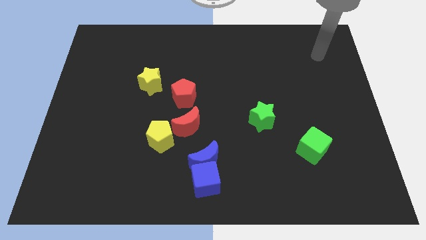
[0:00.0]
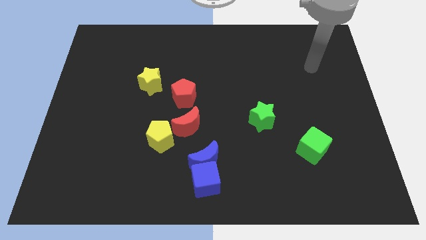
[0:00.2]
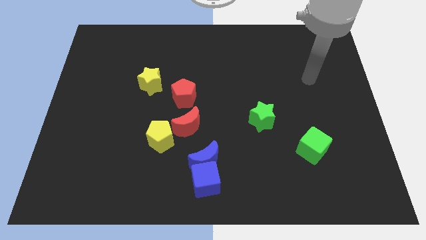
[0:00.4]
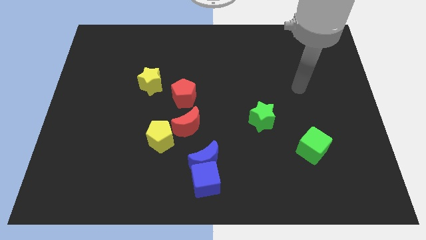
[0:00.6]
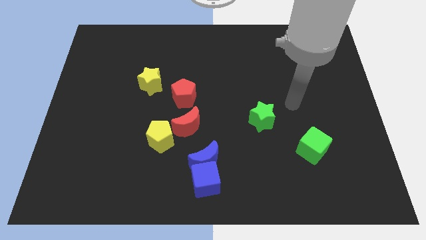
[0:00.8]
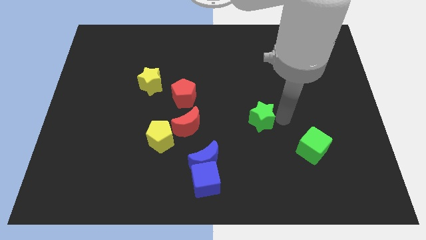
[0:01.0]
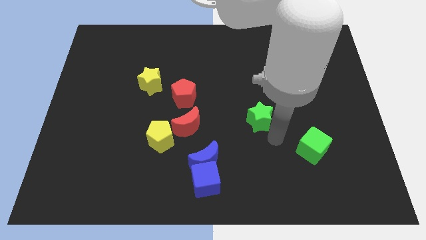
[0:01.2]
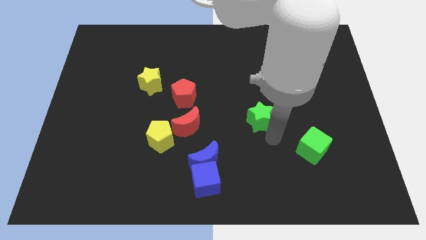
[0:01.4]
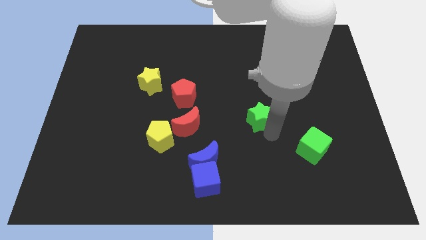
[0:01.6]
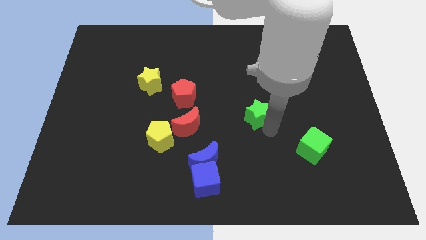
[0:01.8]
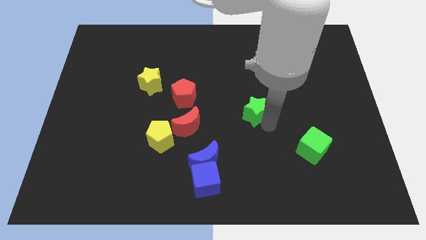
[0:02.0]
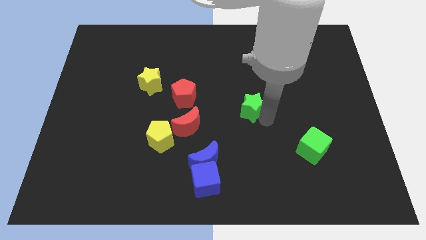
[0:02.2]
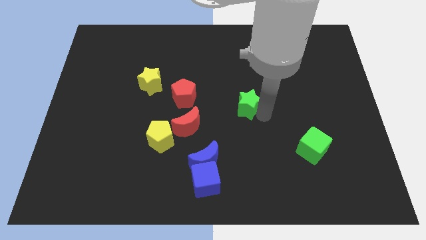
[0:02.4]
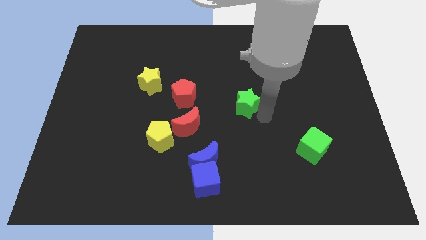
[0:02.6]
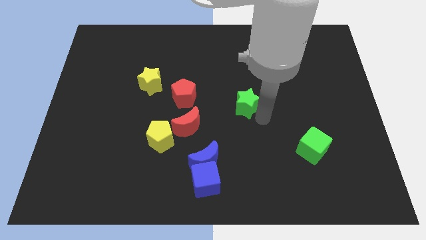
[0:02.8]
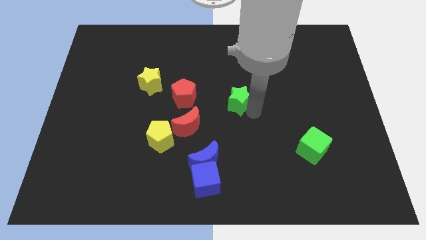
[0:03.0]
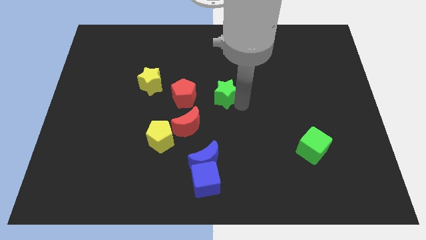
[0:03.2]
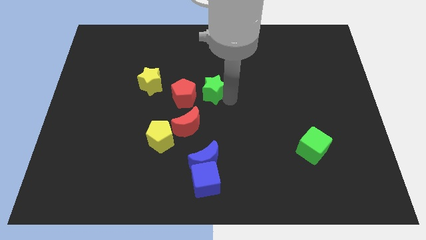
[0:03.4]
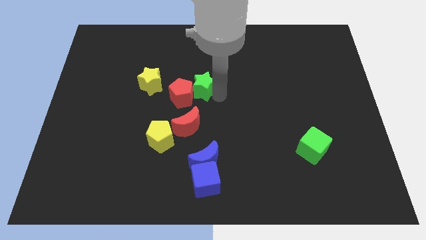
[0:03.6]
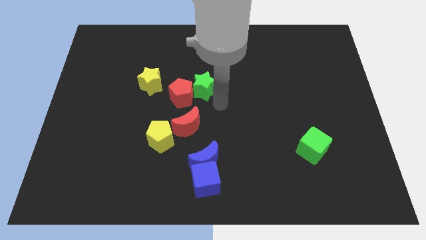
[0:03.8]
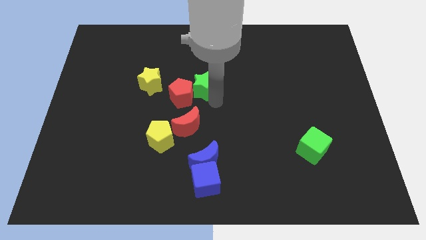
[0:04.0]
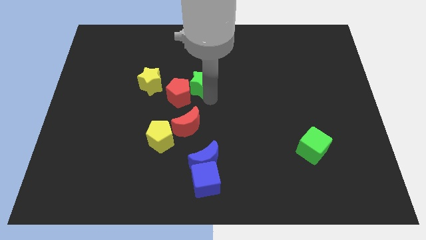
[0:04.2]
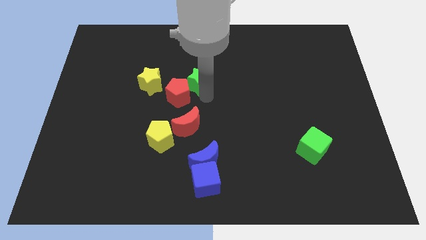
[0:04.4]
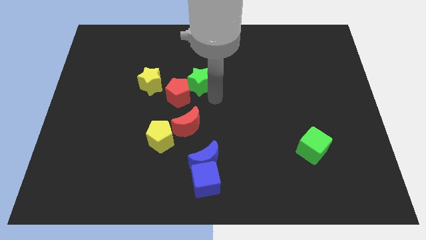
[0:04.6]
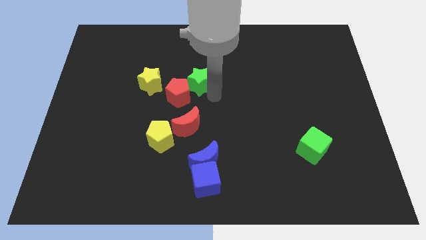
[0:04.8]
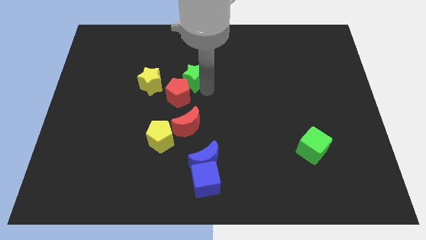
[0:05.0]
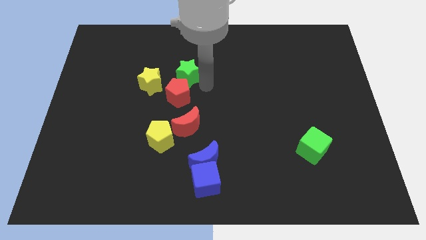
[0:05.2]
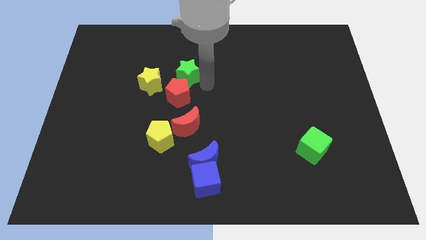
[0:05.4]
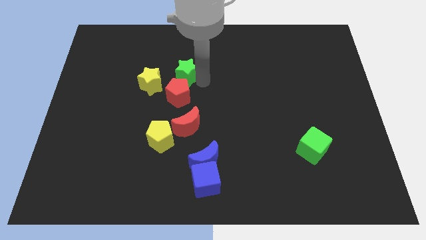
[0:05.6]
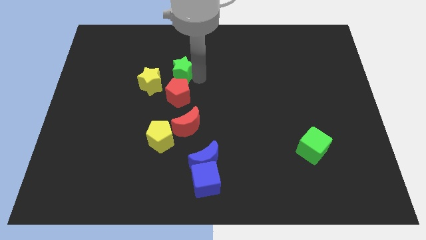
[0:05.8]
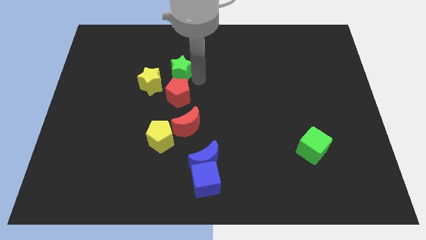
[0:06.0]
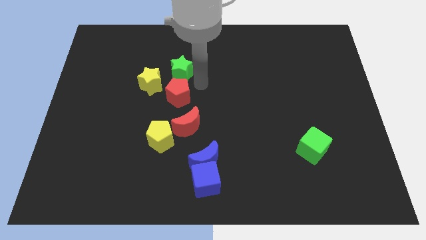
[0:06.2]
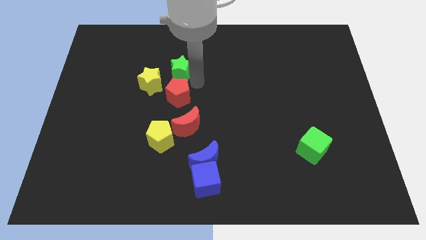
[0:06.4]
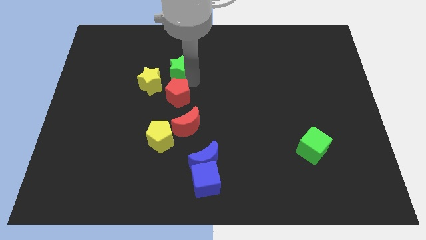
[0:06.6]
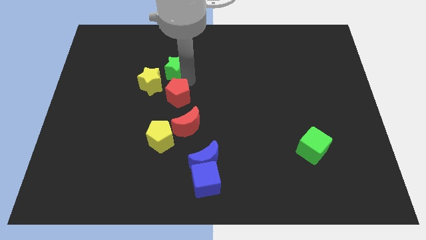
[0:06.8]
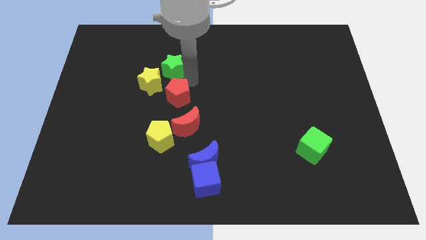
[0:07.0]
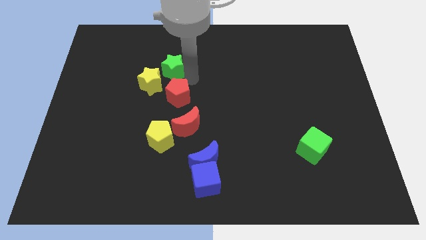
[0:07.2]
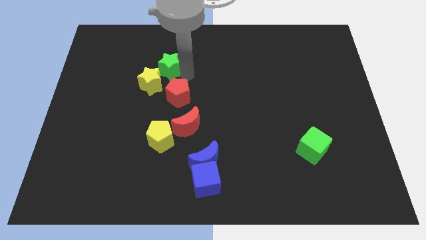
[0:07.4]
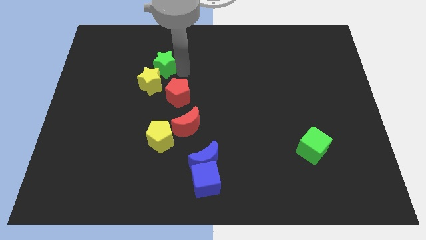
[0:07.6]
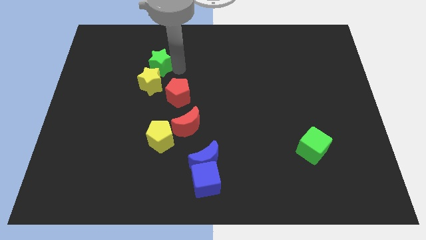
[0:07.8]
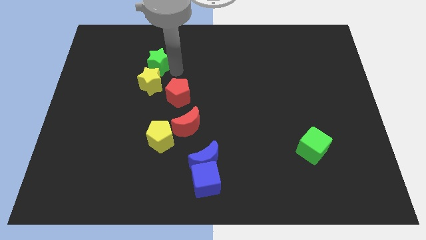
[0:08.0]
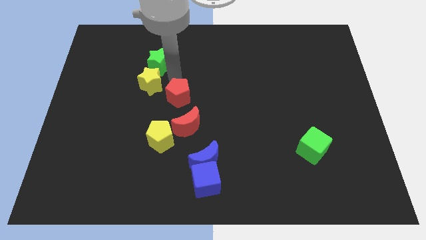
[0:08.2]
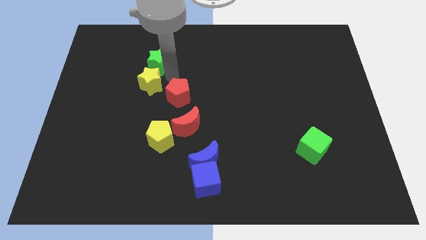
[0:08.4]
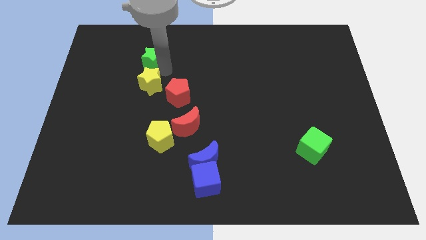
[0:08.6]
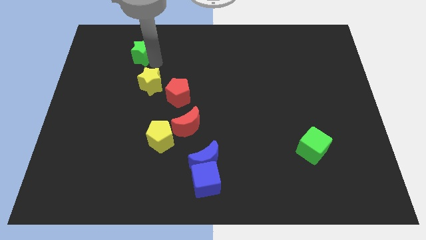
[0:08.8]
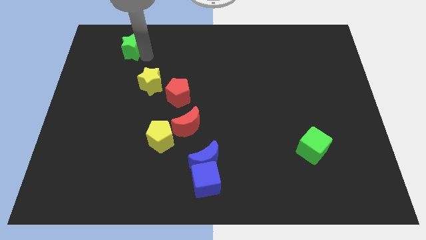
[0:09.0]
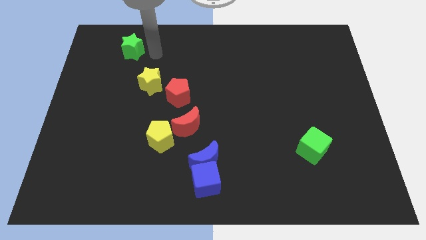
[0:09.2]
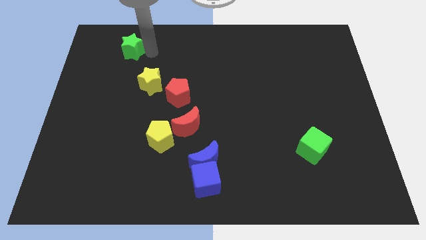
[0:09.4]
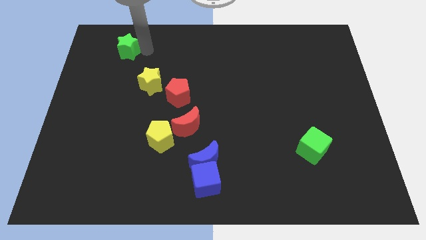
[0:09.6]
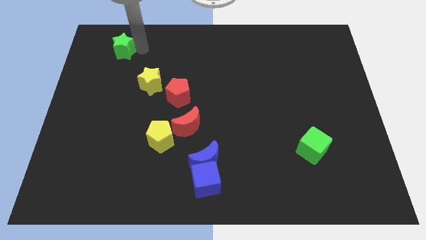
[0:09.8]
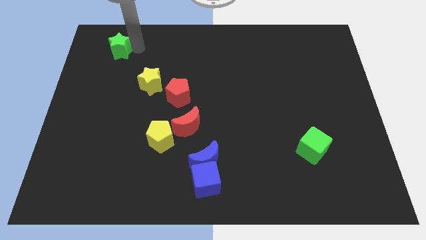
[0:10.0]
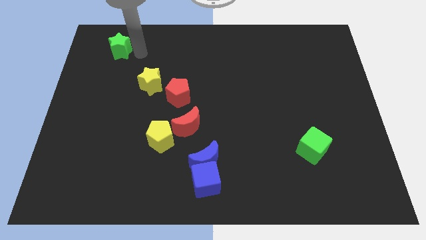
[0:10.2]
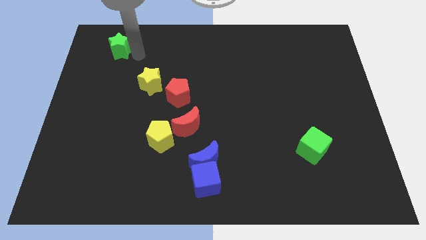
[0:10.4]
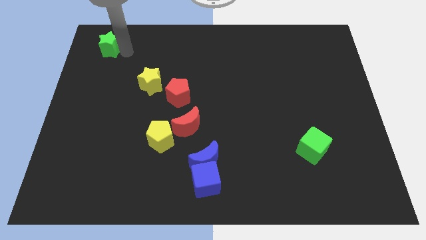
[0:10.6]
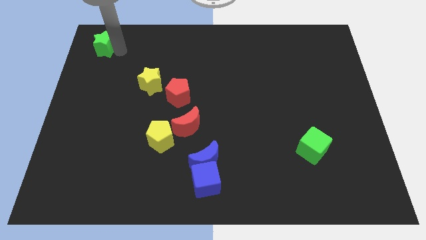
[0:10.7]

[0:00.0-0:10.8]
put the green star to the upper left corner

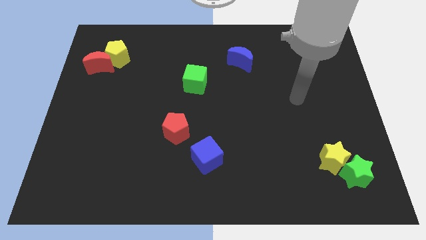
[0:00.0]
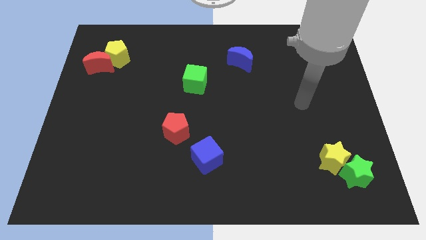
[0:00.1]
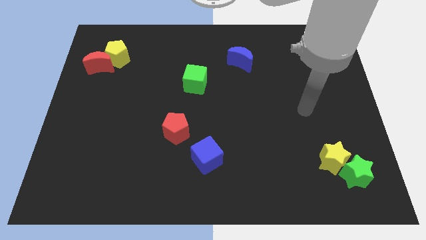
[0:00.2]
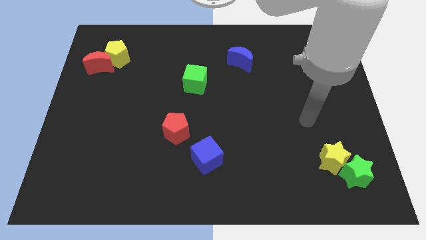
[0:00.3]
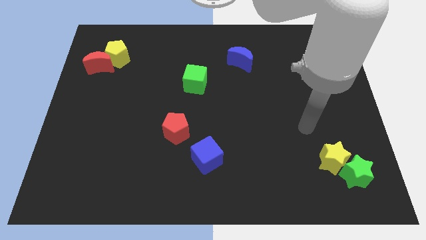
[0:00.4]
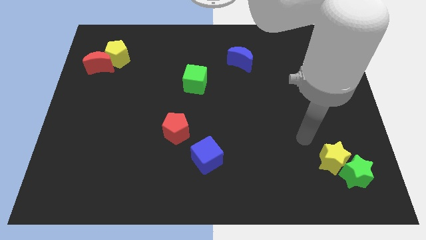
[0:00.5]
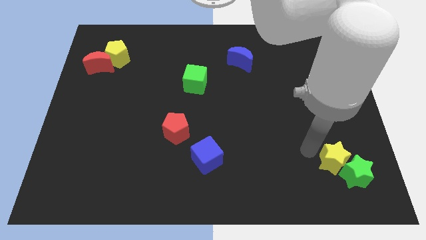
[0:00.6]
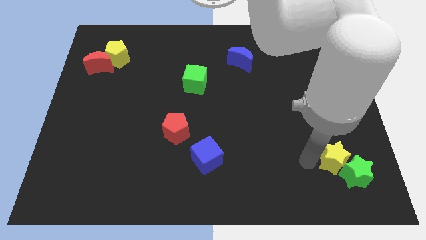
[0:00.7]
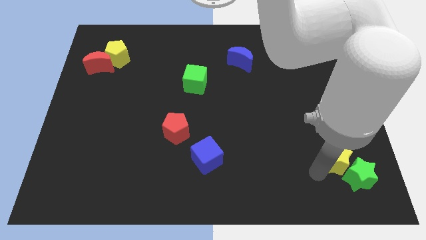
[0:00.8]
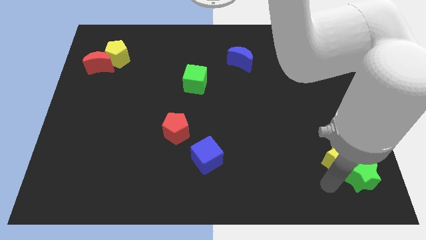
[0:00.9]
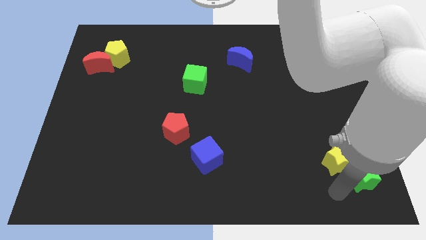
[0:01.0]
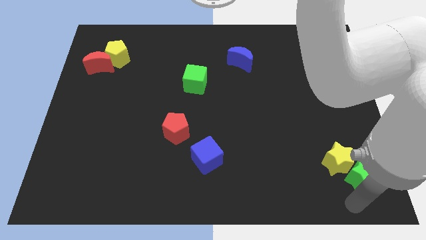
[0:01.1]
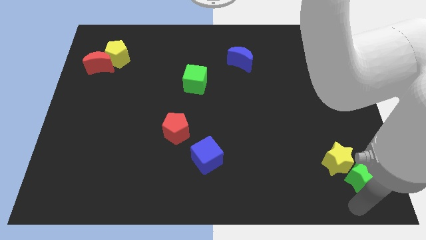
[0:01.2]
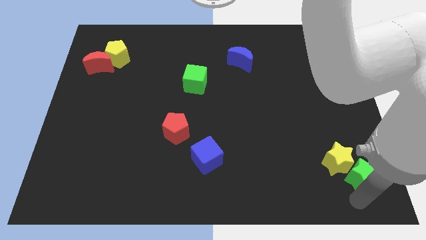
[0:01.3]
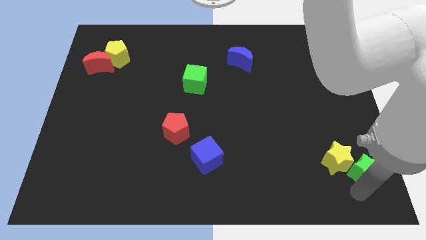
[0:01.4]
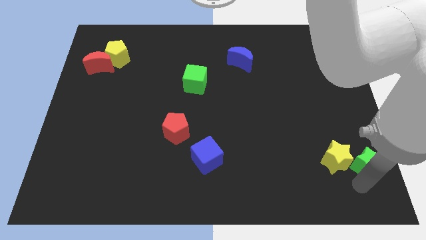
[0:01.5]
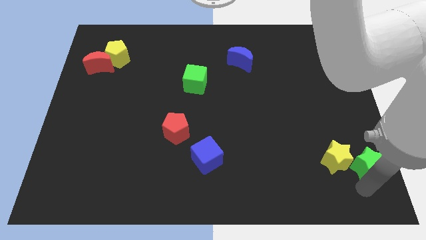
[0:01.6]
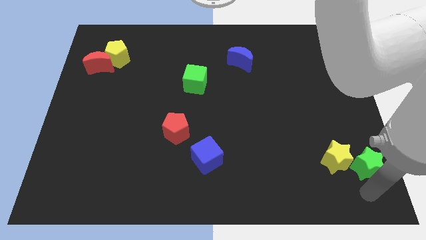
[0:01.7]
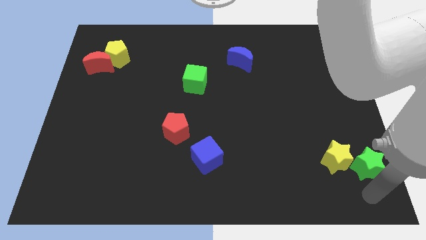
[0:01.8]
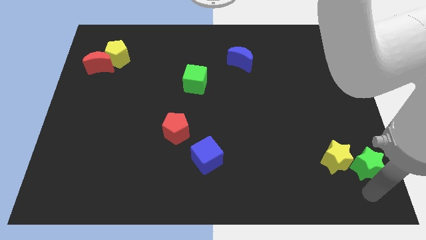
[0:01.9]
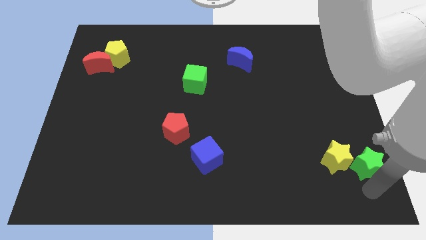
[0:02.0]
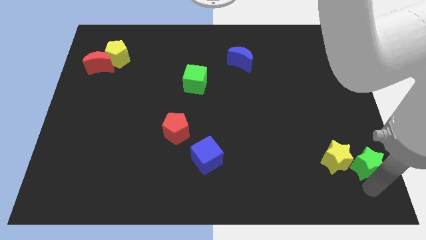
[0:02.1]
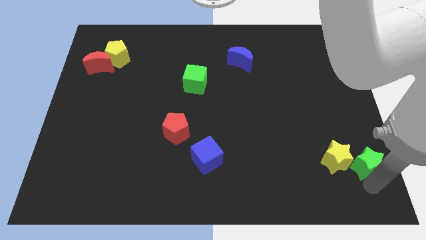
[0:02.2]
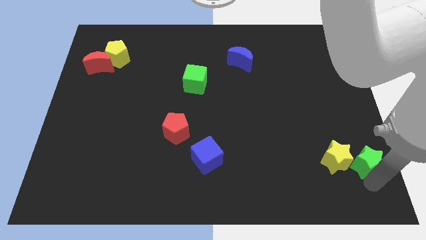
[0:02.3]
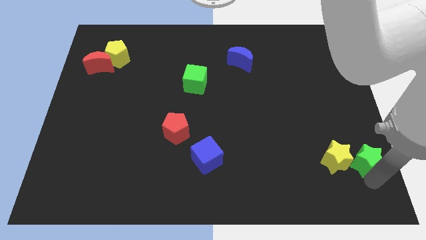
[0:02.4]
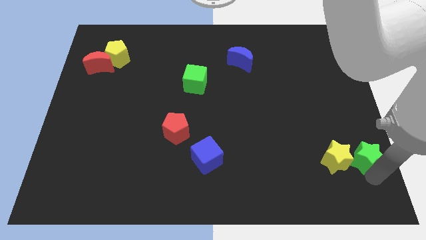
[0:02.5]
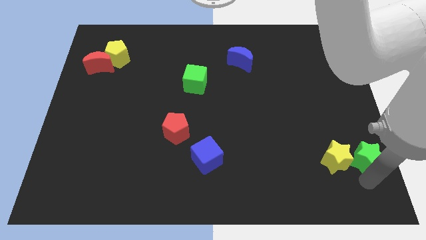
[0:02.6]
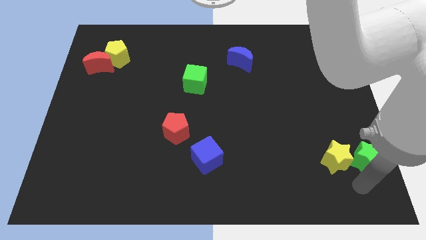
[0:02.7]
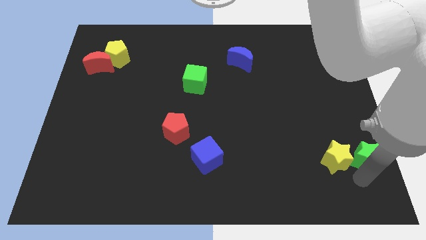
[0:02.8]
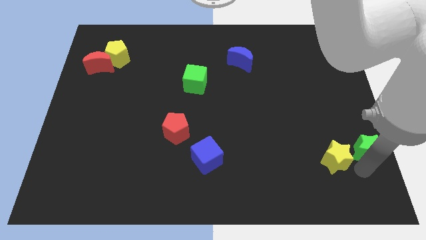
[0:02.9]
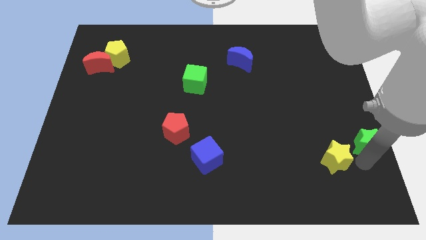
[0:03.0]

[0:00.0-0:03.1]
move the green star to the right side of the board
